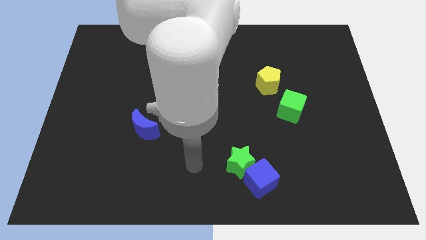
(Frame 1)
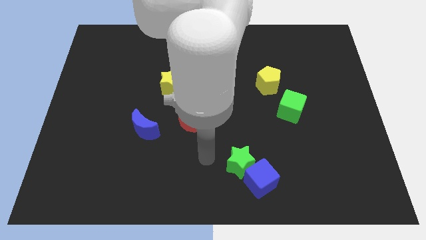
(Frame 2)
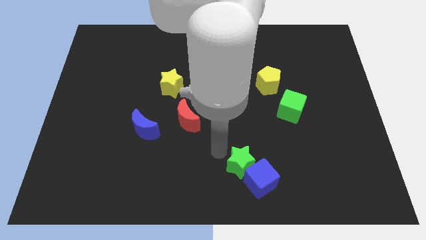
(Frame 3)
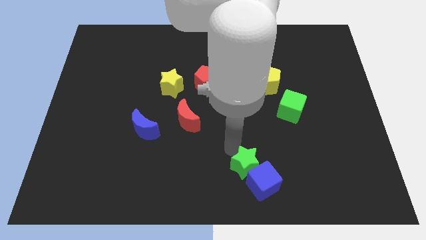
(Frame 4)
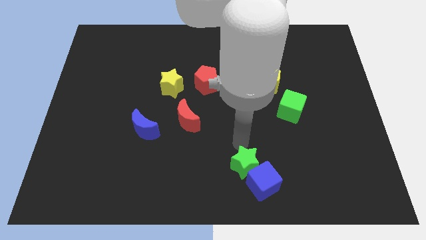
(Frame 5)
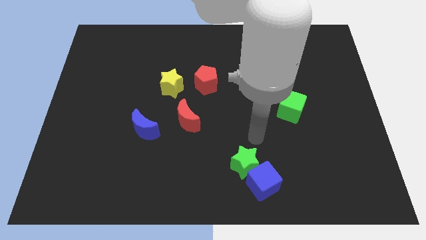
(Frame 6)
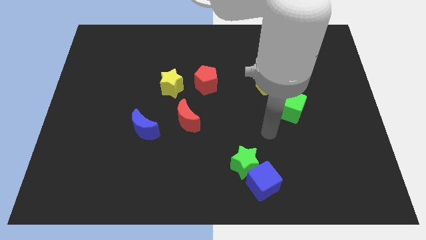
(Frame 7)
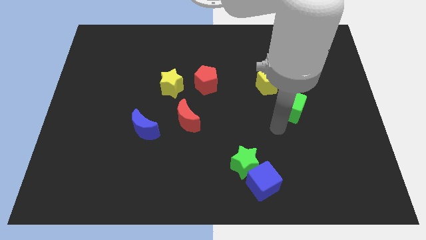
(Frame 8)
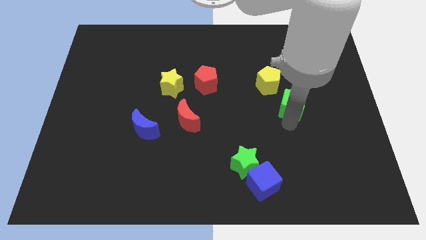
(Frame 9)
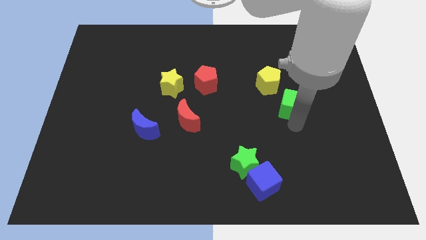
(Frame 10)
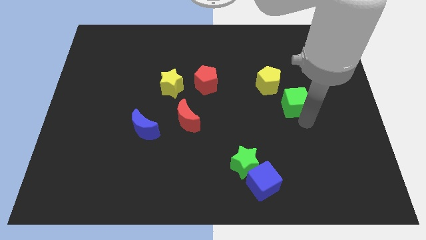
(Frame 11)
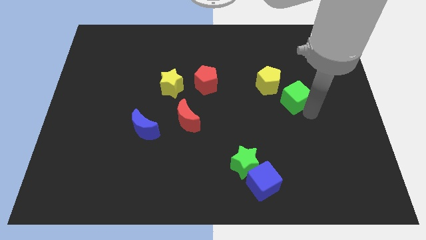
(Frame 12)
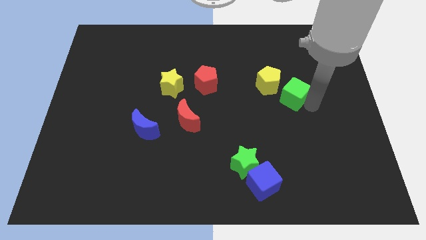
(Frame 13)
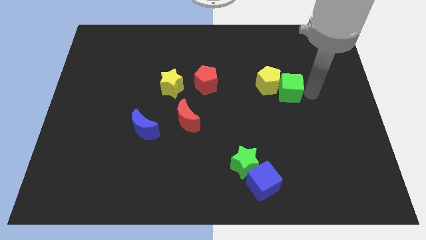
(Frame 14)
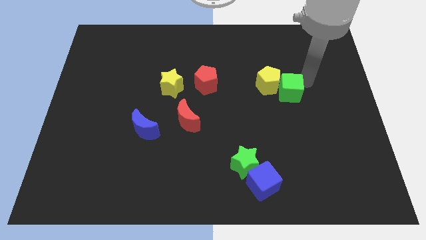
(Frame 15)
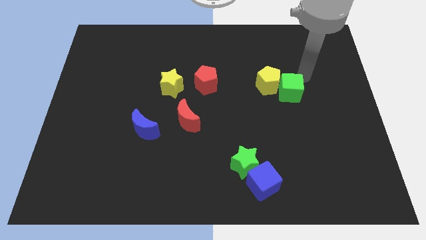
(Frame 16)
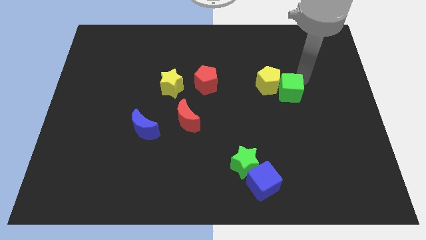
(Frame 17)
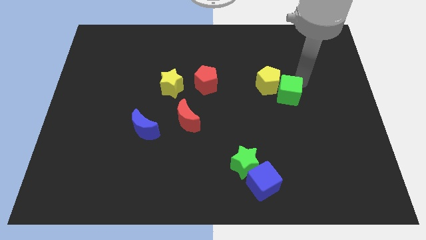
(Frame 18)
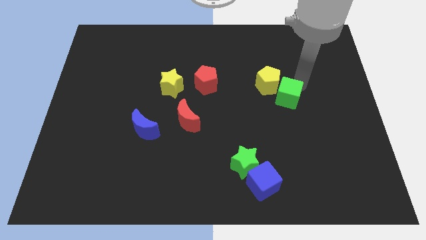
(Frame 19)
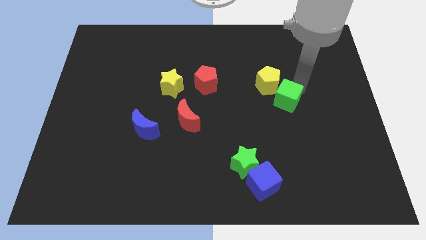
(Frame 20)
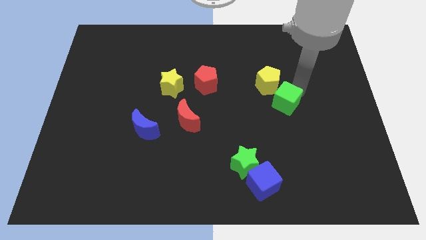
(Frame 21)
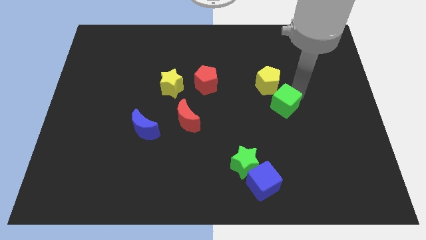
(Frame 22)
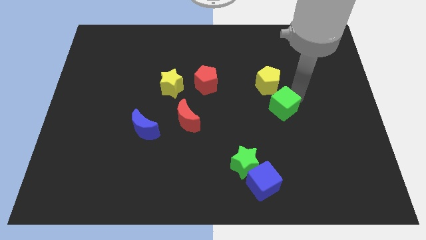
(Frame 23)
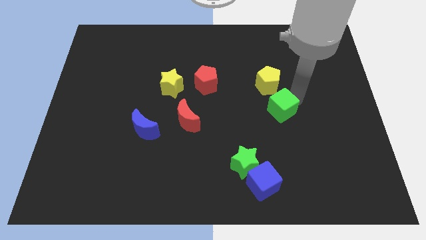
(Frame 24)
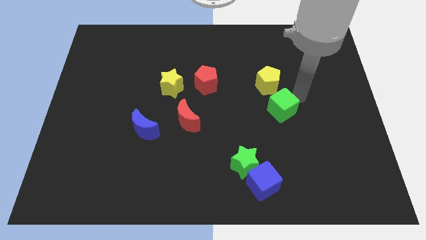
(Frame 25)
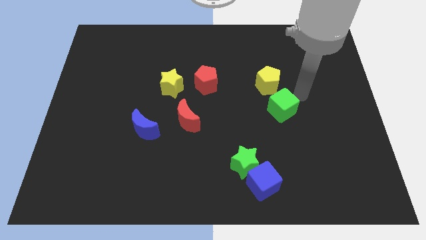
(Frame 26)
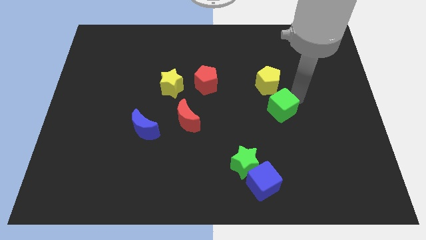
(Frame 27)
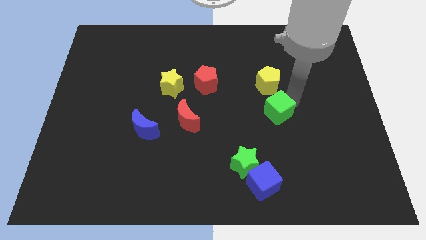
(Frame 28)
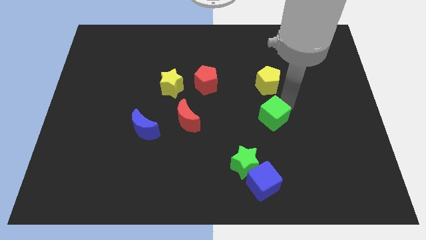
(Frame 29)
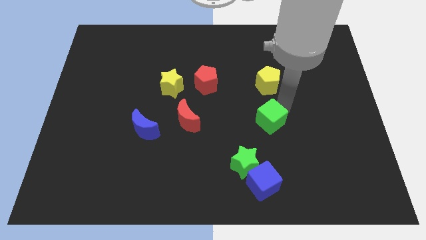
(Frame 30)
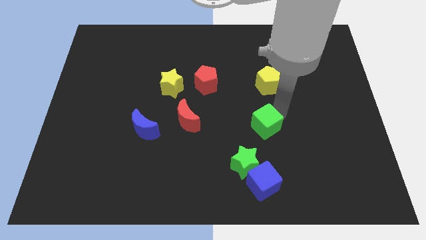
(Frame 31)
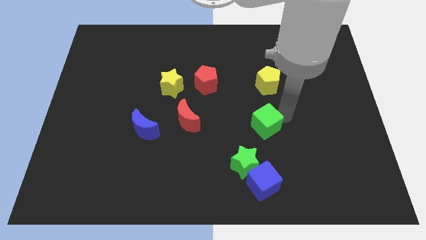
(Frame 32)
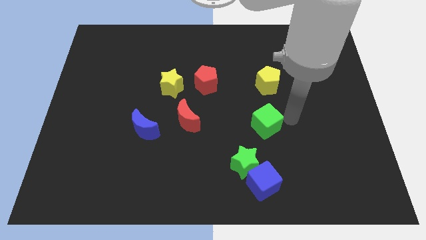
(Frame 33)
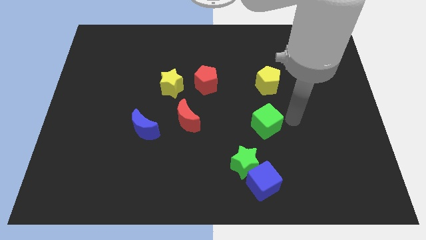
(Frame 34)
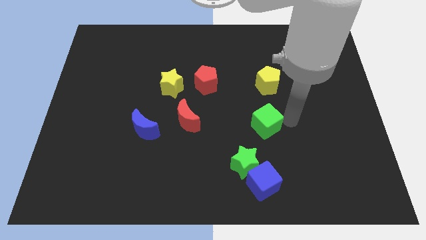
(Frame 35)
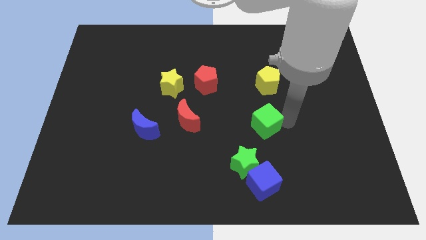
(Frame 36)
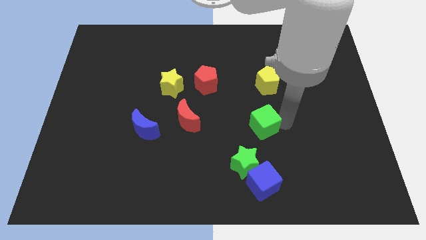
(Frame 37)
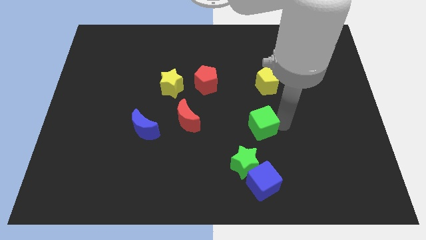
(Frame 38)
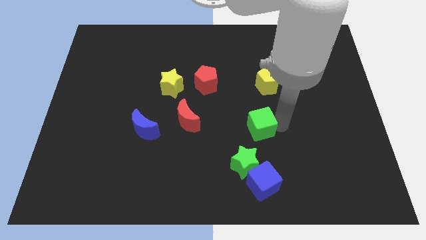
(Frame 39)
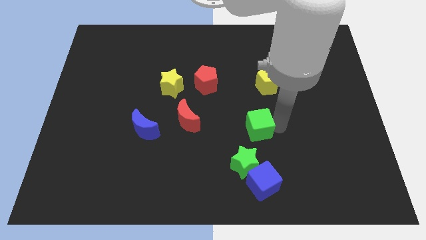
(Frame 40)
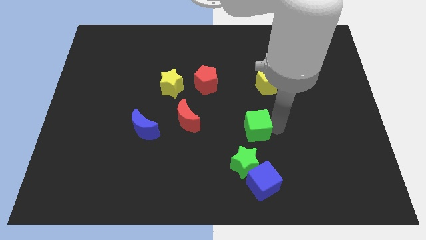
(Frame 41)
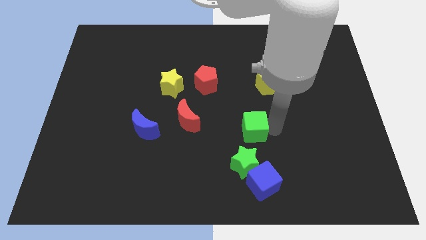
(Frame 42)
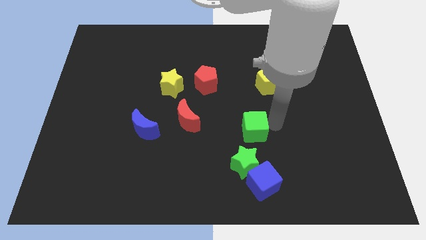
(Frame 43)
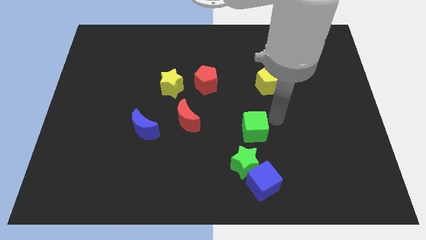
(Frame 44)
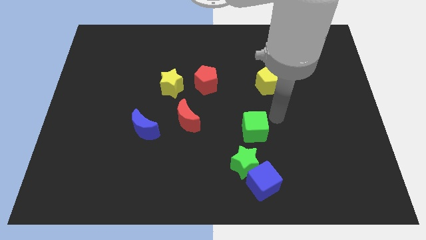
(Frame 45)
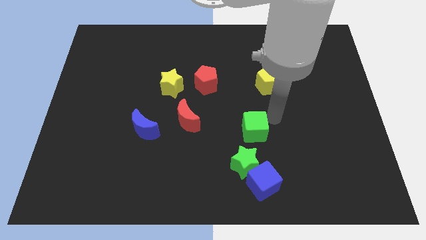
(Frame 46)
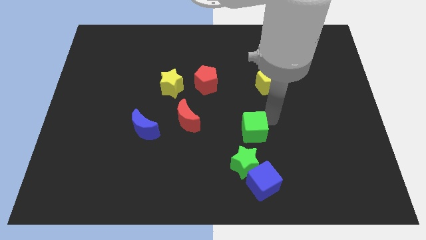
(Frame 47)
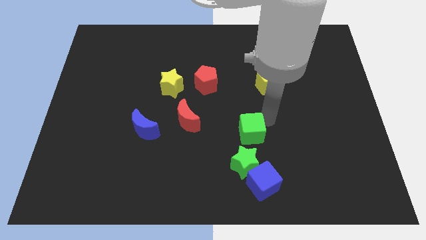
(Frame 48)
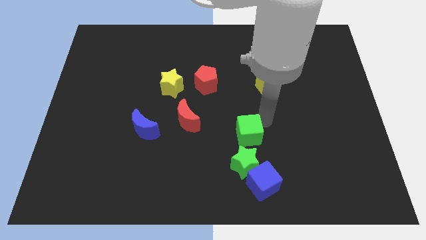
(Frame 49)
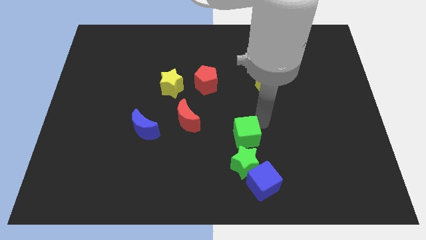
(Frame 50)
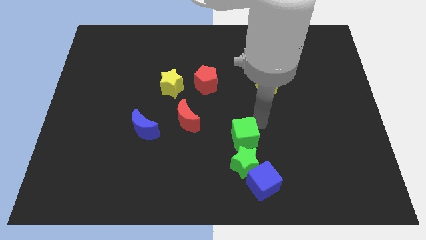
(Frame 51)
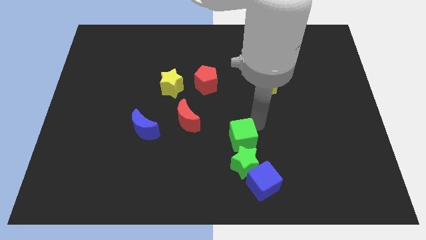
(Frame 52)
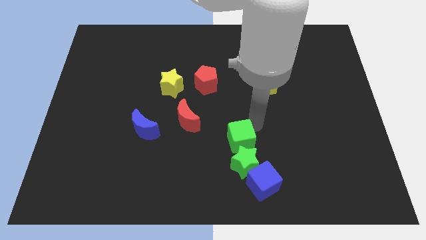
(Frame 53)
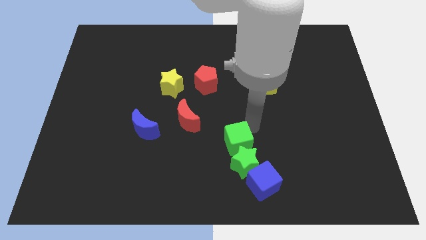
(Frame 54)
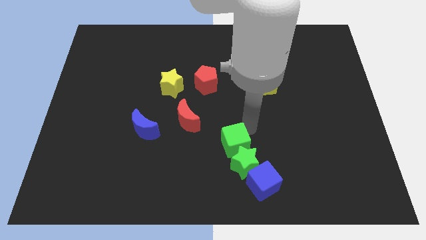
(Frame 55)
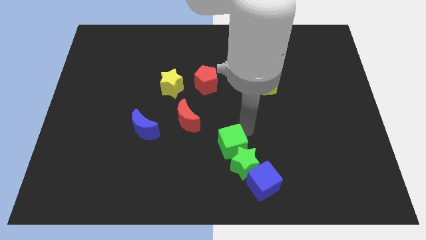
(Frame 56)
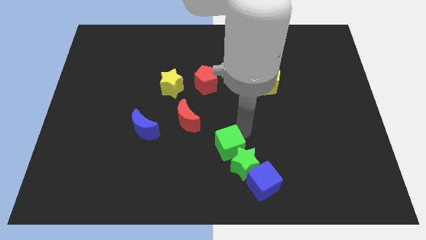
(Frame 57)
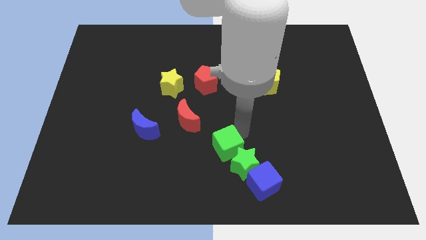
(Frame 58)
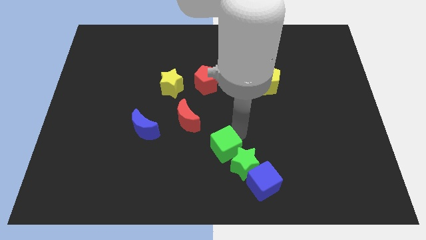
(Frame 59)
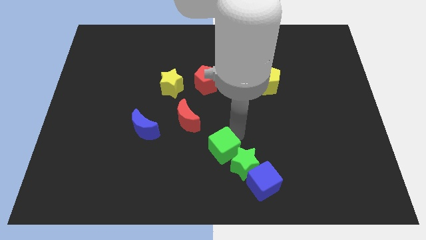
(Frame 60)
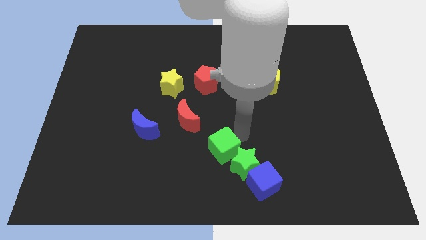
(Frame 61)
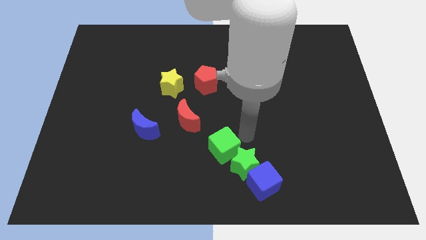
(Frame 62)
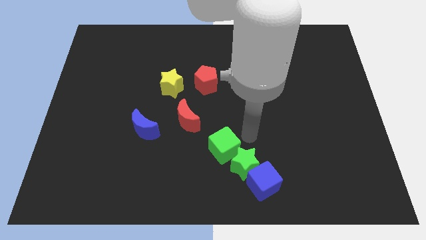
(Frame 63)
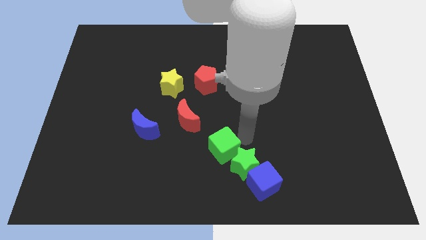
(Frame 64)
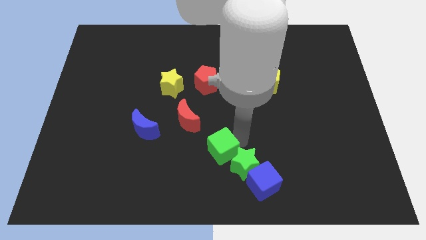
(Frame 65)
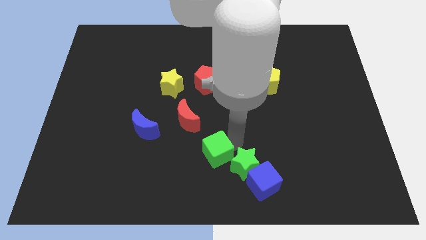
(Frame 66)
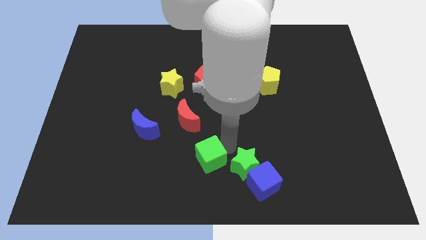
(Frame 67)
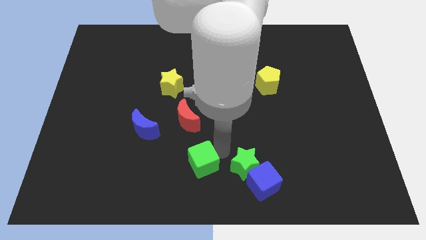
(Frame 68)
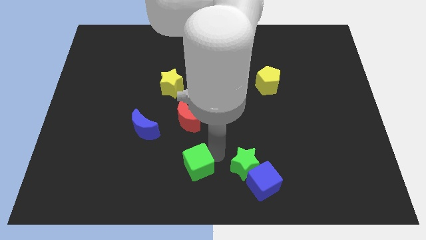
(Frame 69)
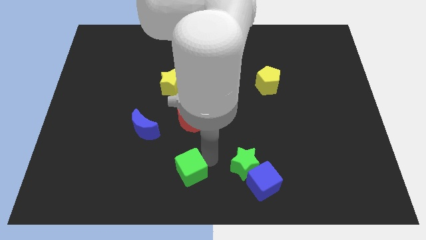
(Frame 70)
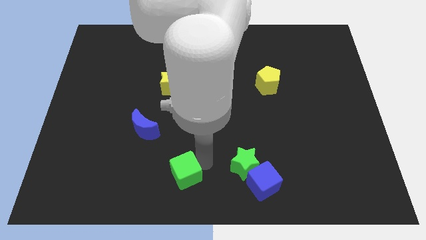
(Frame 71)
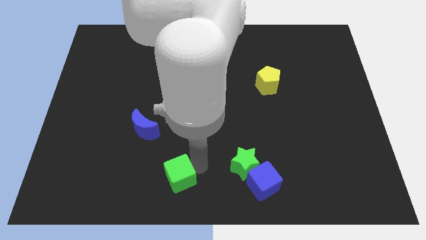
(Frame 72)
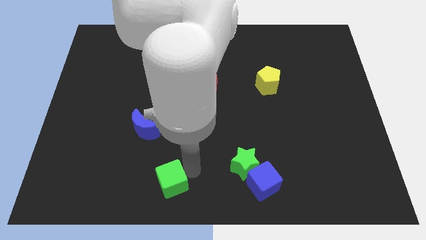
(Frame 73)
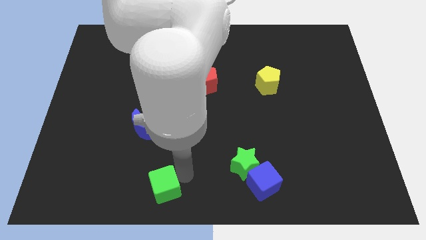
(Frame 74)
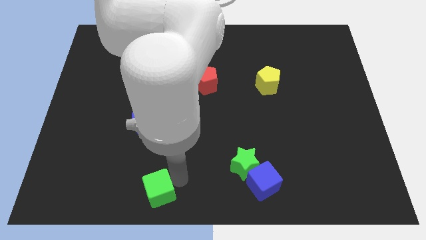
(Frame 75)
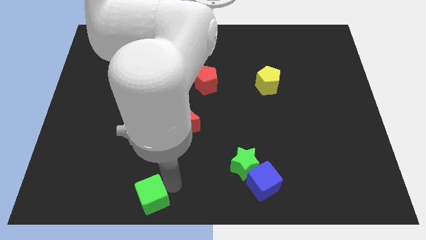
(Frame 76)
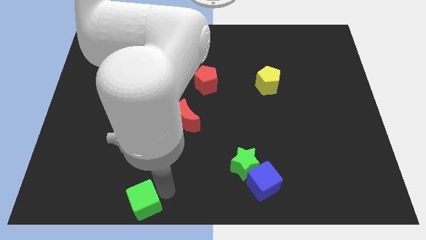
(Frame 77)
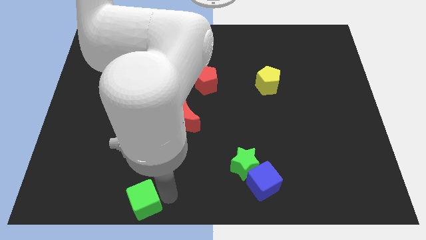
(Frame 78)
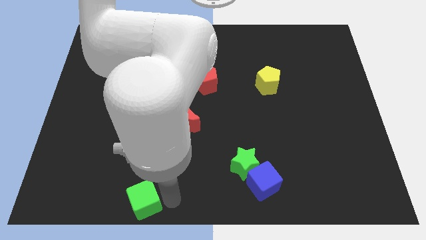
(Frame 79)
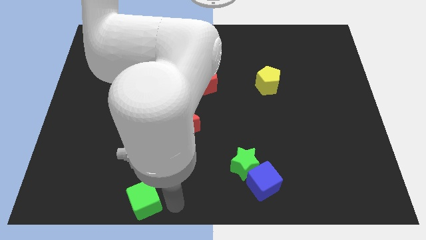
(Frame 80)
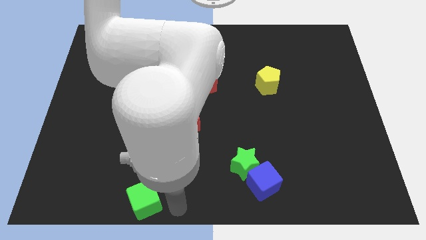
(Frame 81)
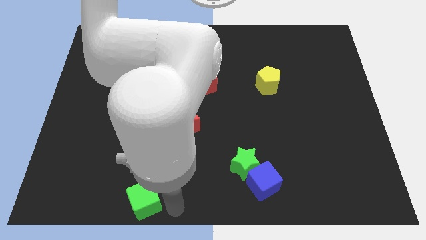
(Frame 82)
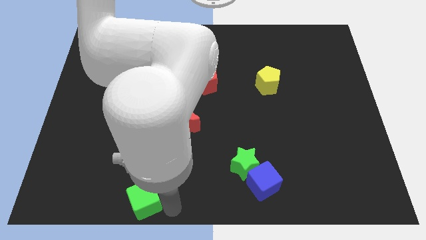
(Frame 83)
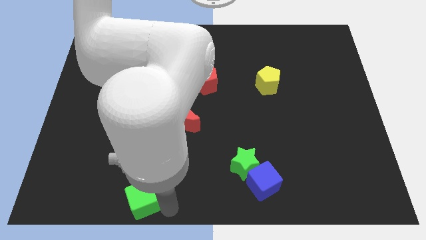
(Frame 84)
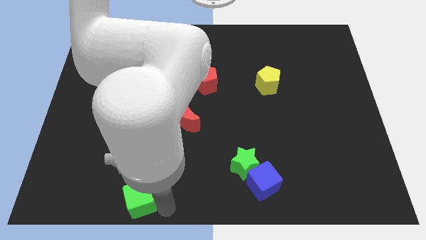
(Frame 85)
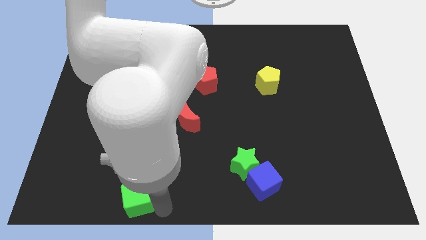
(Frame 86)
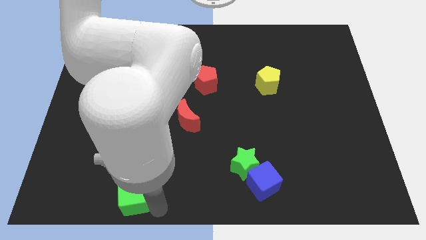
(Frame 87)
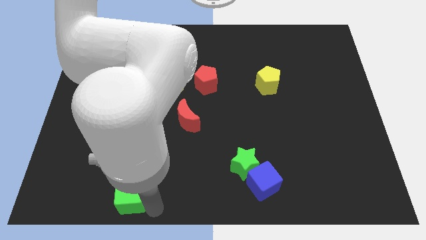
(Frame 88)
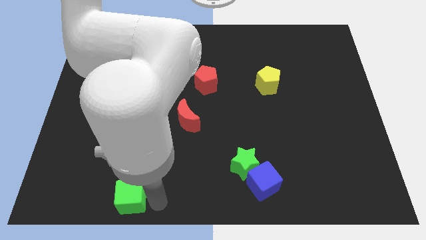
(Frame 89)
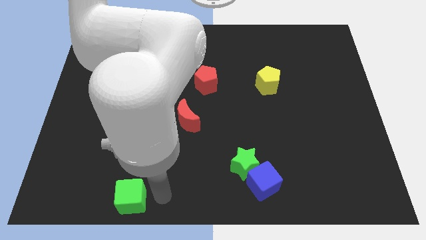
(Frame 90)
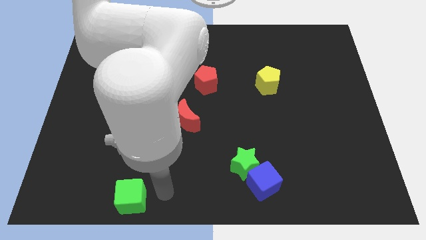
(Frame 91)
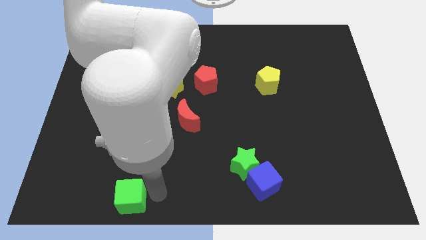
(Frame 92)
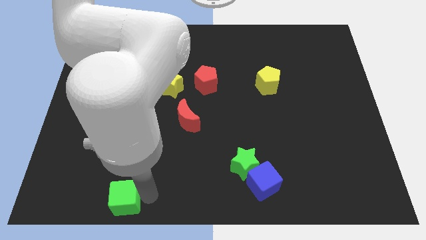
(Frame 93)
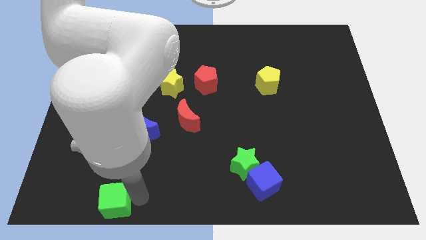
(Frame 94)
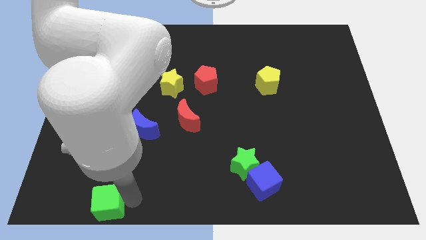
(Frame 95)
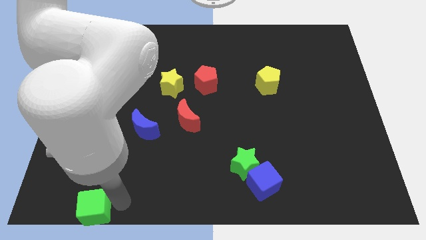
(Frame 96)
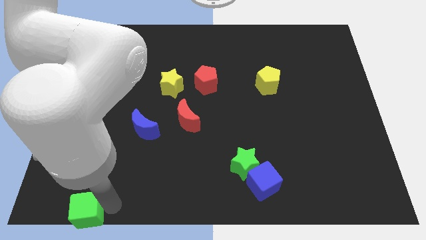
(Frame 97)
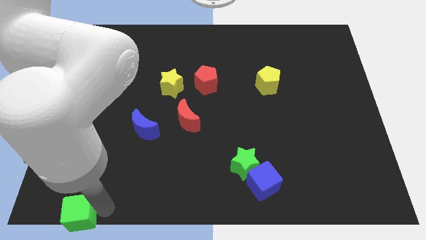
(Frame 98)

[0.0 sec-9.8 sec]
slide the green cube to the bottom left corner
